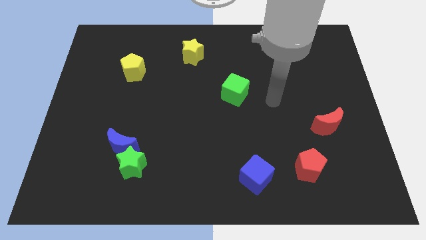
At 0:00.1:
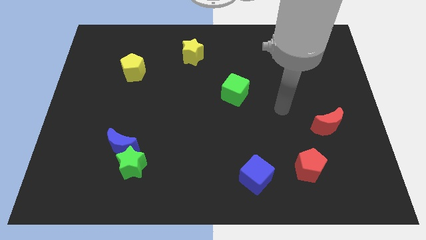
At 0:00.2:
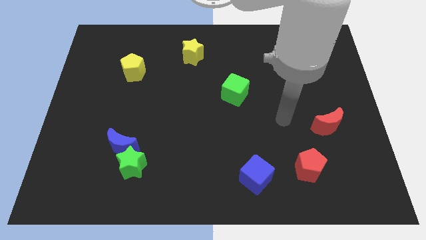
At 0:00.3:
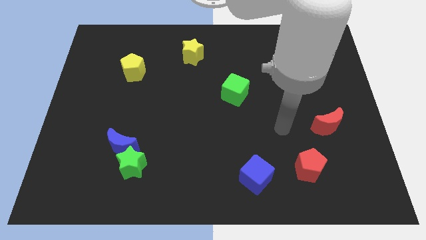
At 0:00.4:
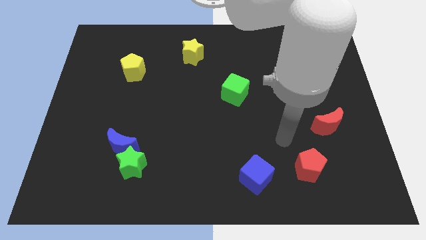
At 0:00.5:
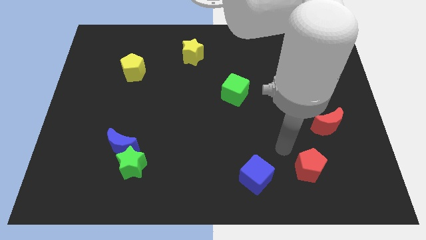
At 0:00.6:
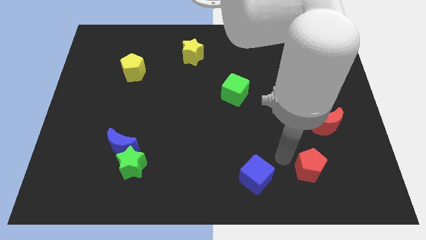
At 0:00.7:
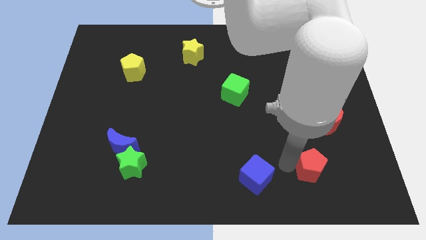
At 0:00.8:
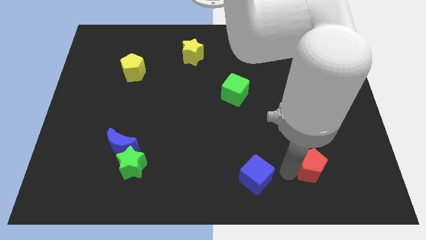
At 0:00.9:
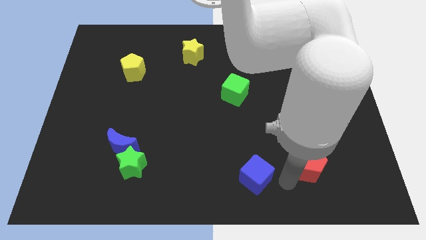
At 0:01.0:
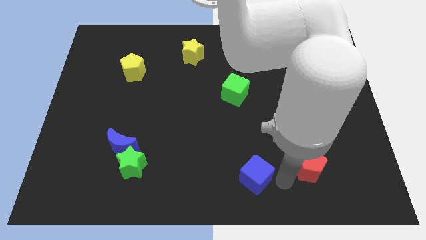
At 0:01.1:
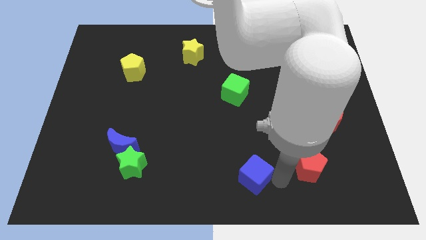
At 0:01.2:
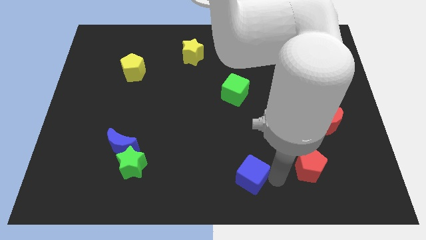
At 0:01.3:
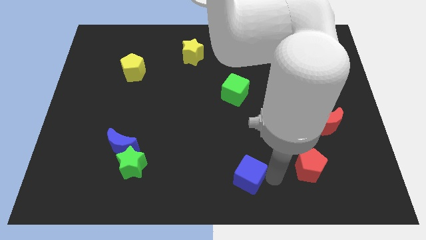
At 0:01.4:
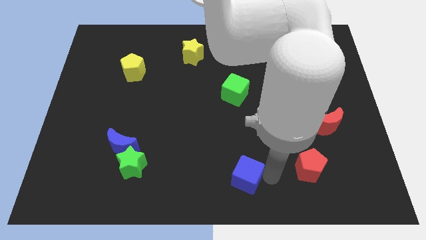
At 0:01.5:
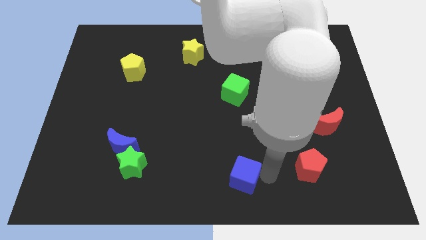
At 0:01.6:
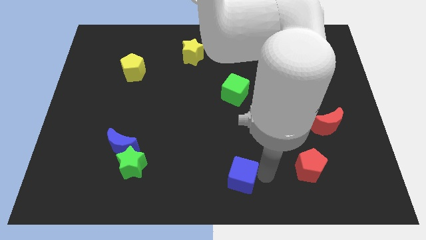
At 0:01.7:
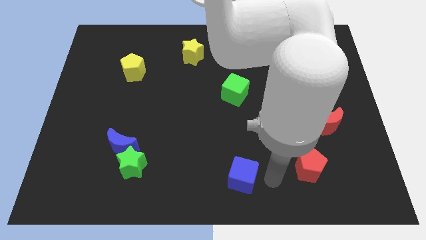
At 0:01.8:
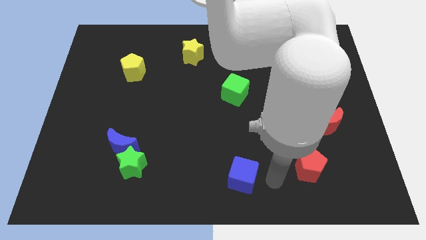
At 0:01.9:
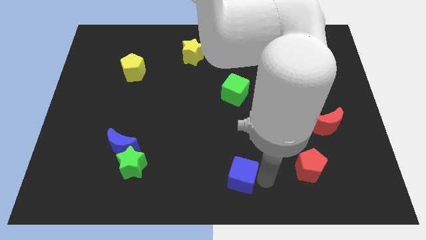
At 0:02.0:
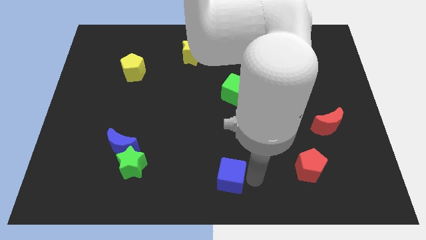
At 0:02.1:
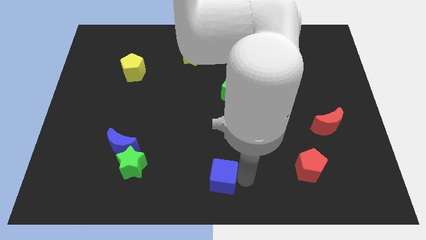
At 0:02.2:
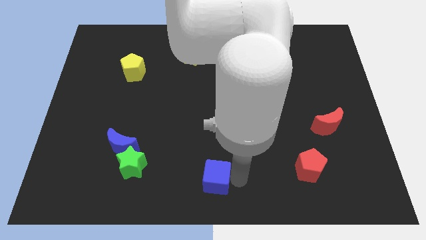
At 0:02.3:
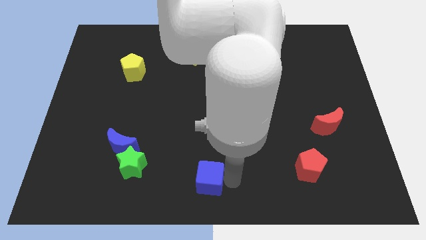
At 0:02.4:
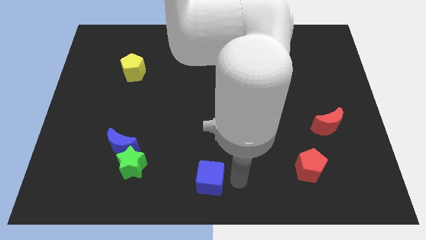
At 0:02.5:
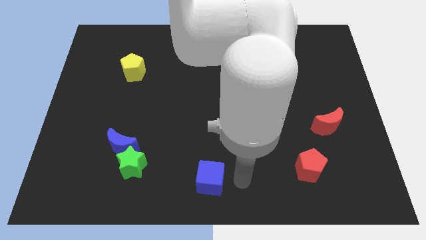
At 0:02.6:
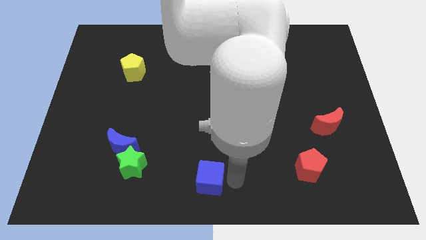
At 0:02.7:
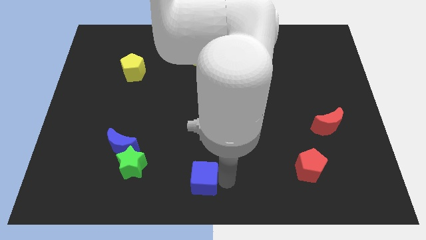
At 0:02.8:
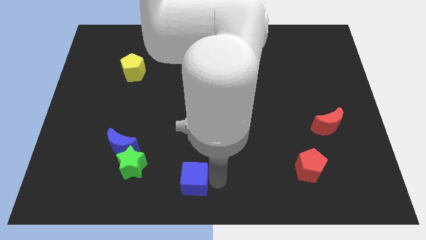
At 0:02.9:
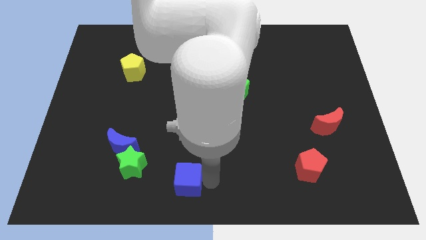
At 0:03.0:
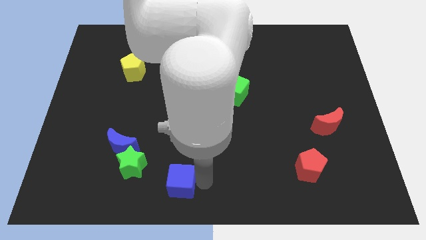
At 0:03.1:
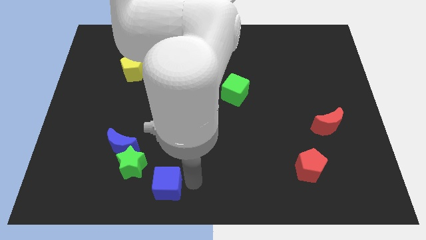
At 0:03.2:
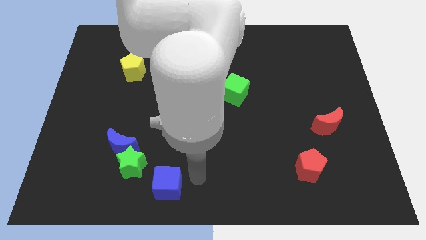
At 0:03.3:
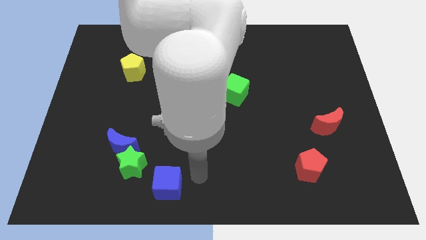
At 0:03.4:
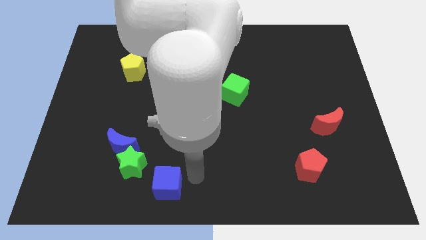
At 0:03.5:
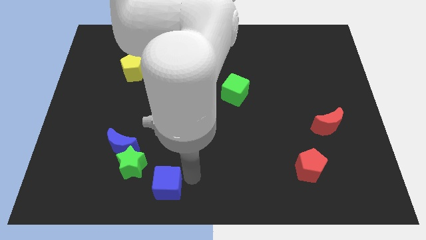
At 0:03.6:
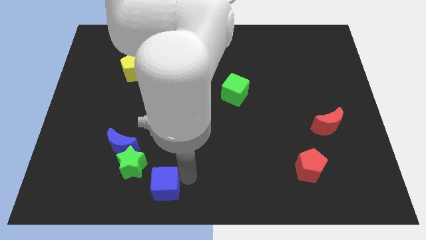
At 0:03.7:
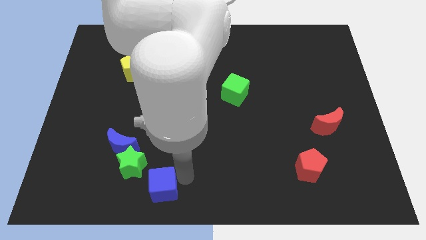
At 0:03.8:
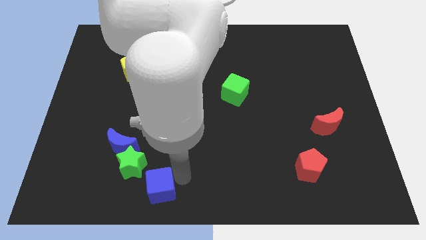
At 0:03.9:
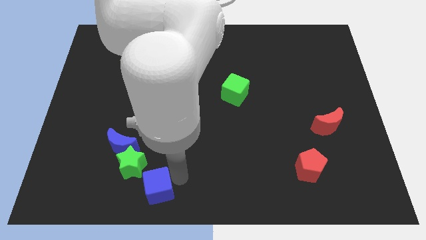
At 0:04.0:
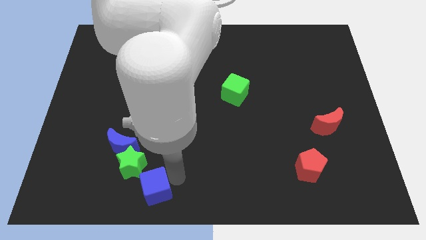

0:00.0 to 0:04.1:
slide the blue cube left

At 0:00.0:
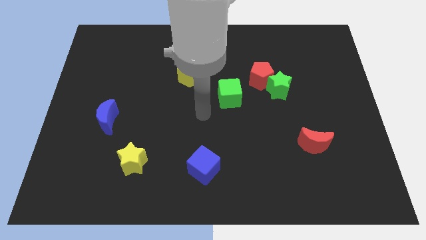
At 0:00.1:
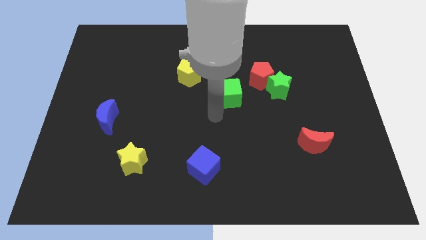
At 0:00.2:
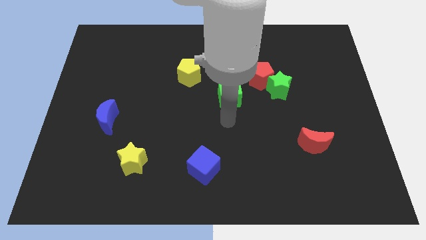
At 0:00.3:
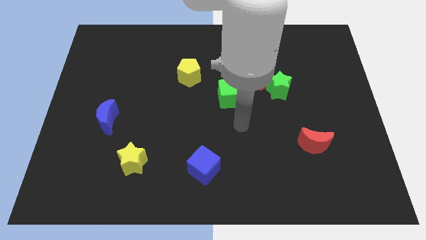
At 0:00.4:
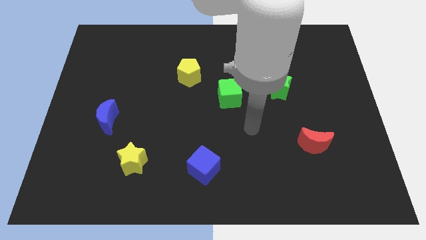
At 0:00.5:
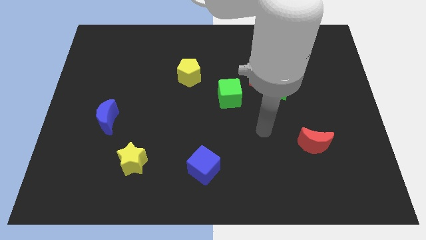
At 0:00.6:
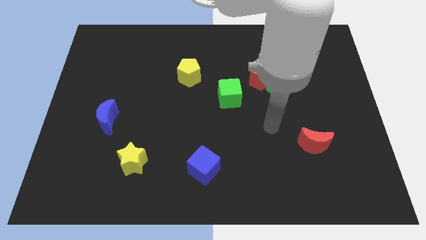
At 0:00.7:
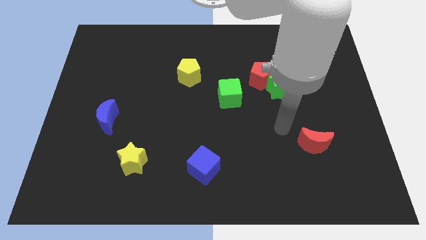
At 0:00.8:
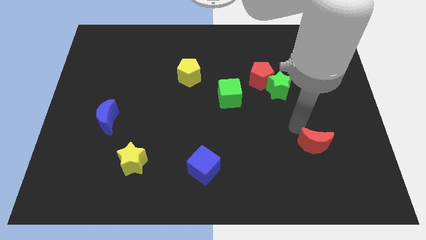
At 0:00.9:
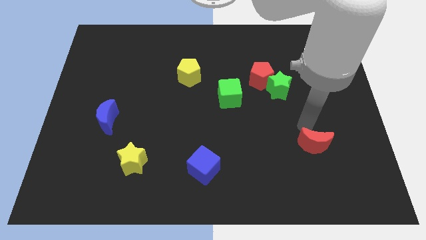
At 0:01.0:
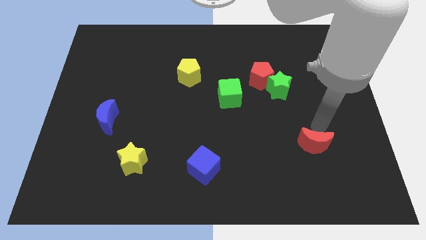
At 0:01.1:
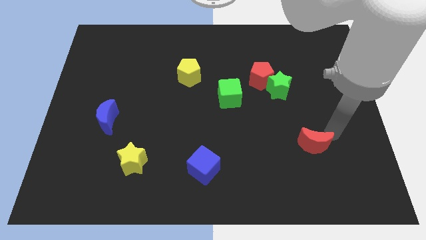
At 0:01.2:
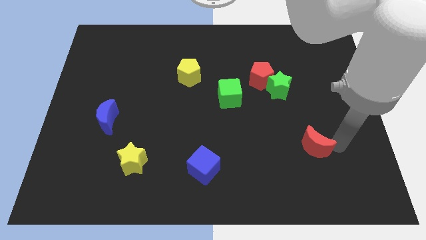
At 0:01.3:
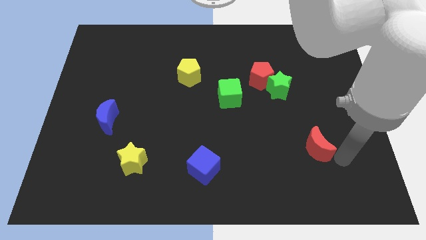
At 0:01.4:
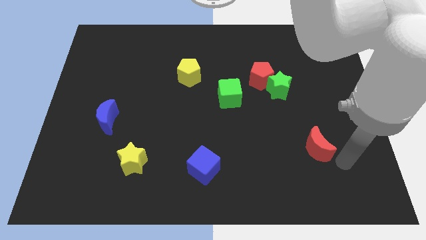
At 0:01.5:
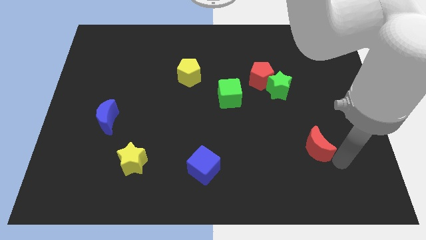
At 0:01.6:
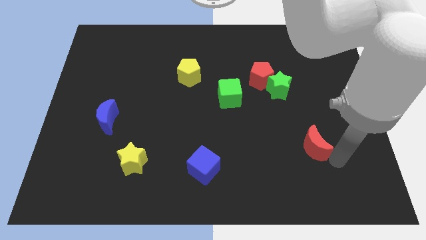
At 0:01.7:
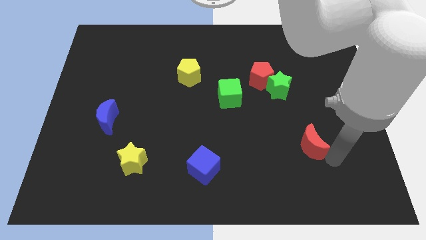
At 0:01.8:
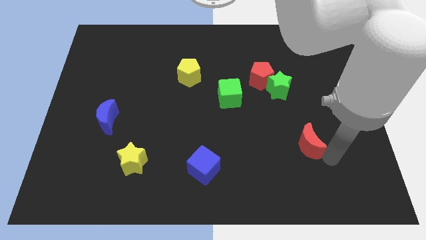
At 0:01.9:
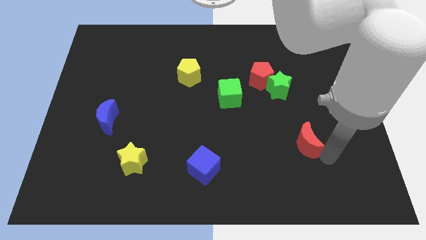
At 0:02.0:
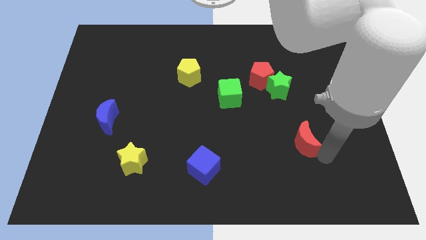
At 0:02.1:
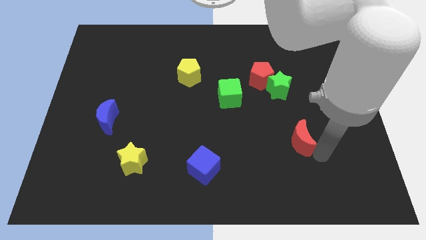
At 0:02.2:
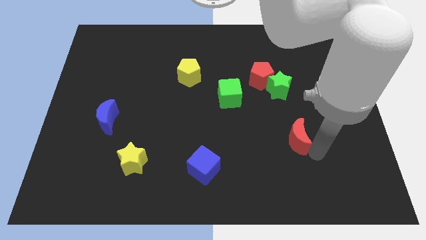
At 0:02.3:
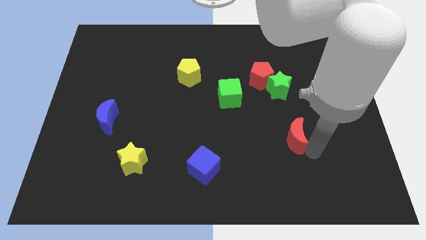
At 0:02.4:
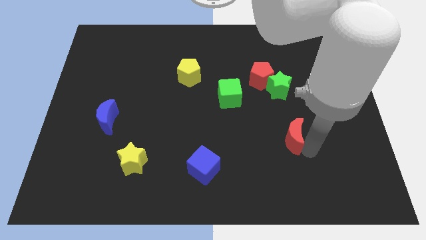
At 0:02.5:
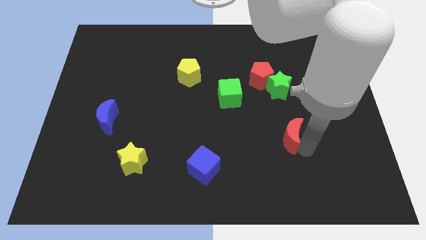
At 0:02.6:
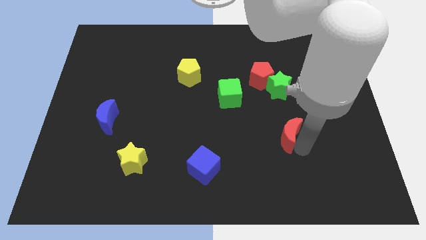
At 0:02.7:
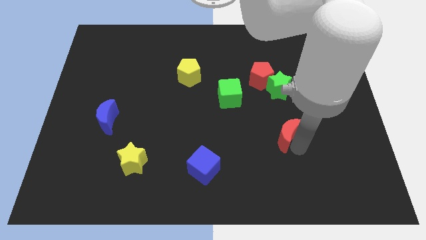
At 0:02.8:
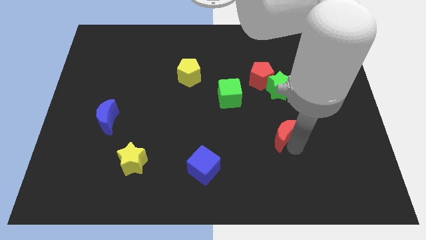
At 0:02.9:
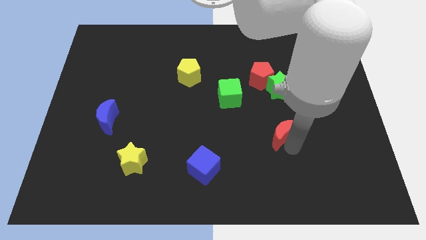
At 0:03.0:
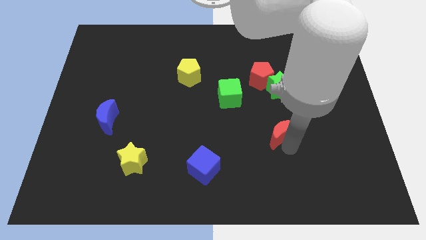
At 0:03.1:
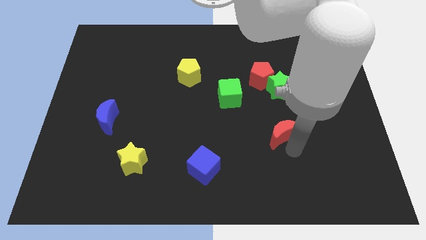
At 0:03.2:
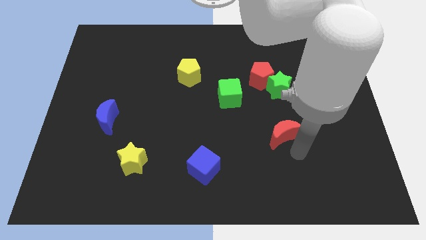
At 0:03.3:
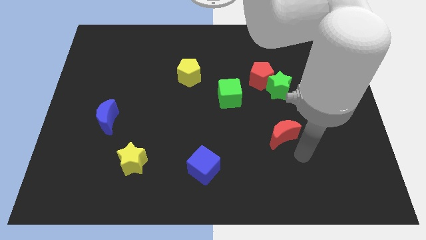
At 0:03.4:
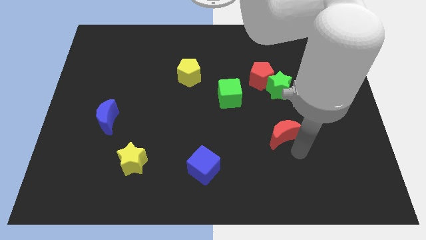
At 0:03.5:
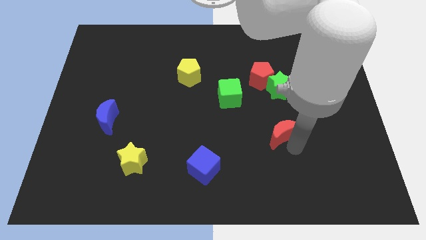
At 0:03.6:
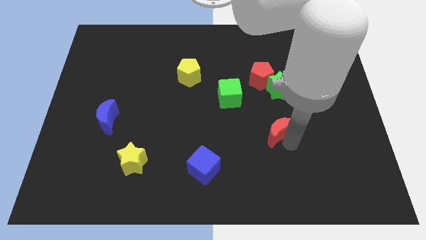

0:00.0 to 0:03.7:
slightly push the red moon upwards and then left
